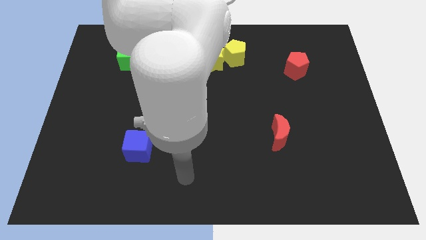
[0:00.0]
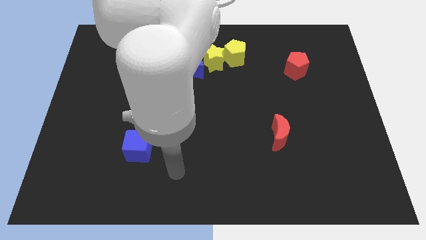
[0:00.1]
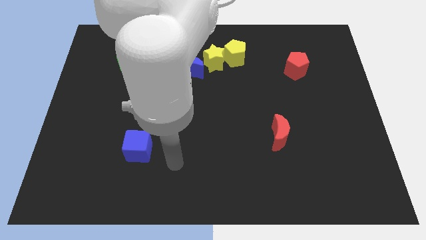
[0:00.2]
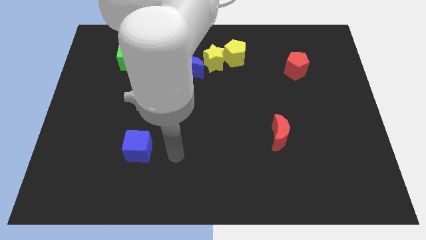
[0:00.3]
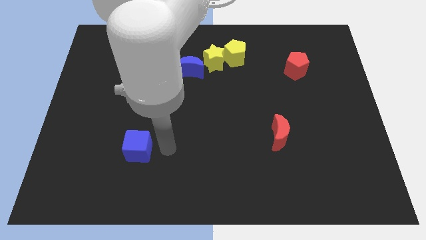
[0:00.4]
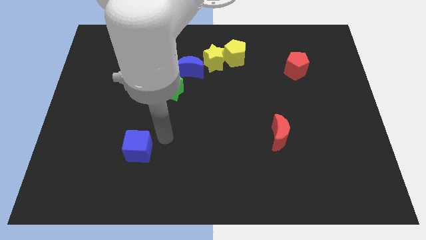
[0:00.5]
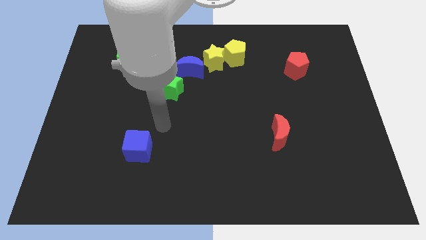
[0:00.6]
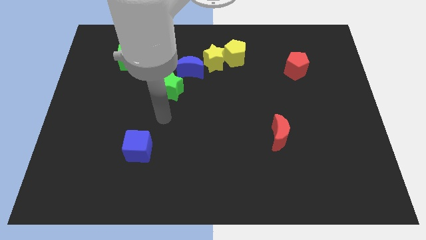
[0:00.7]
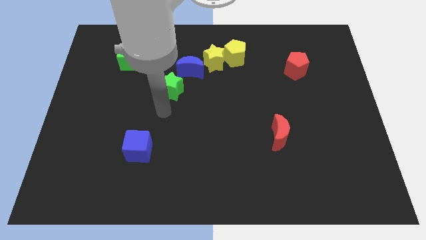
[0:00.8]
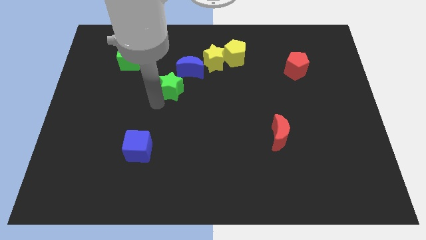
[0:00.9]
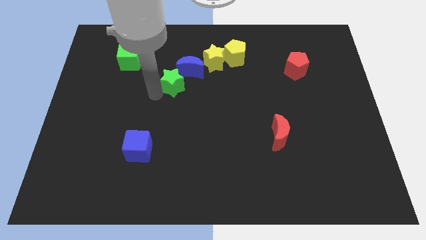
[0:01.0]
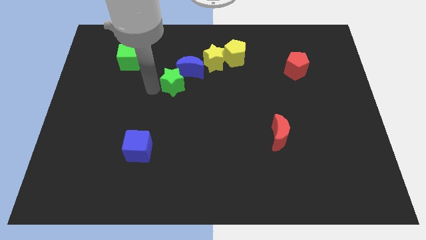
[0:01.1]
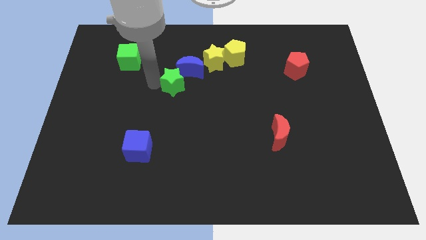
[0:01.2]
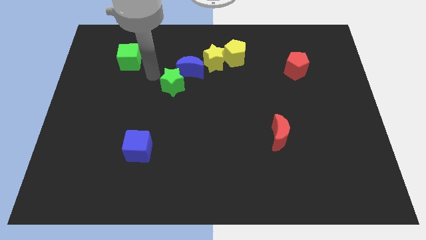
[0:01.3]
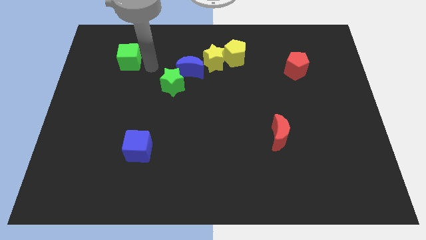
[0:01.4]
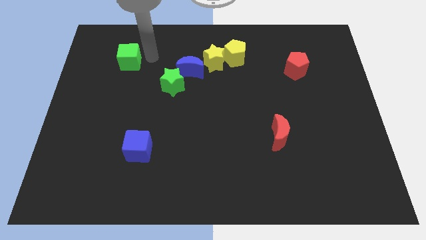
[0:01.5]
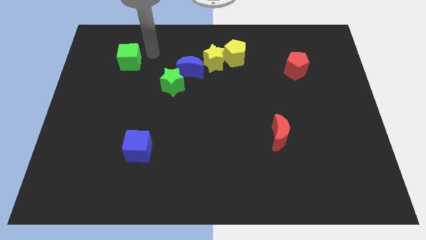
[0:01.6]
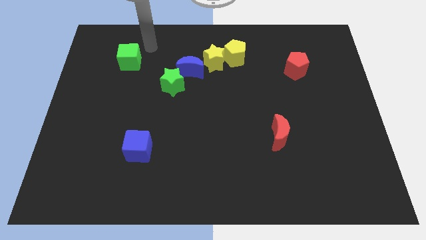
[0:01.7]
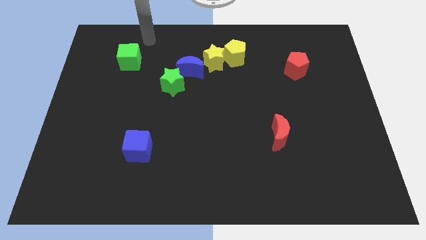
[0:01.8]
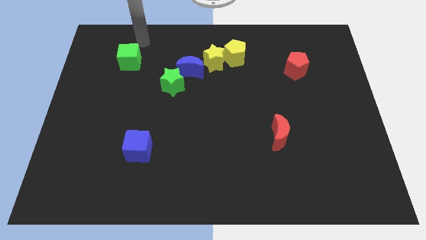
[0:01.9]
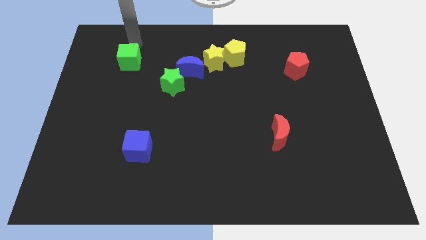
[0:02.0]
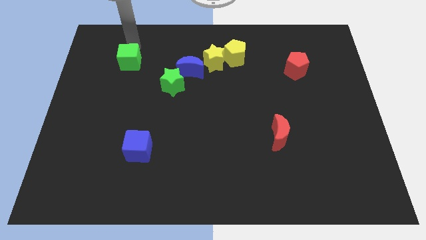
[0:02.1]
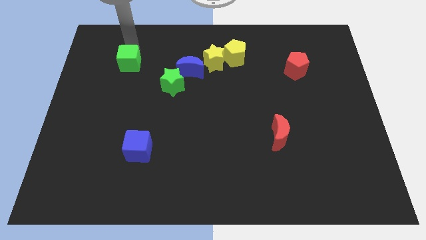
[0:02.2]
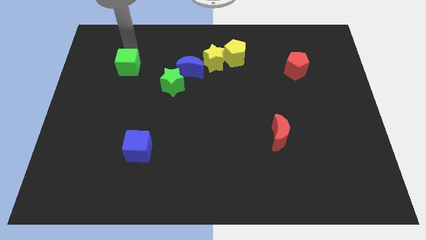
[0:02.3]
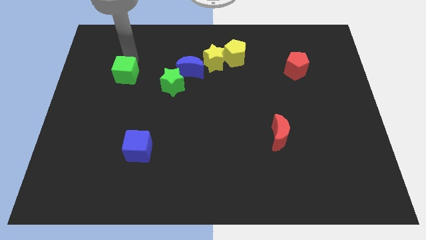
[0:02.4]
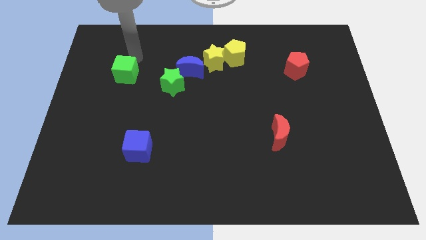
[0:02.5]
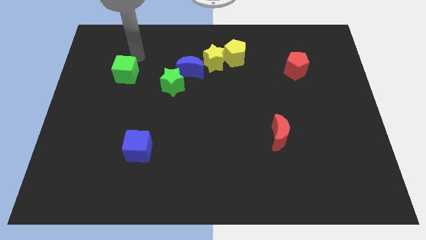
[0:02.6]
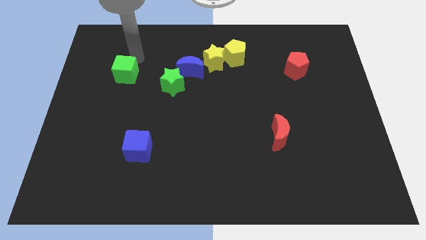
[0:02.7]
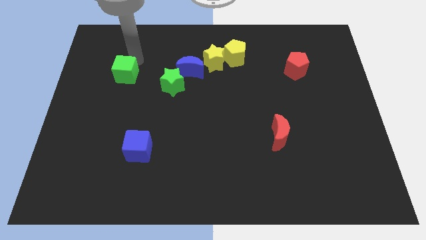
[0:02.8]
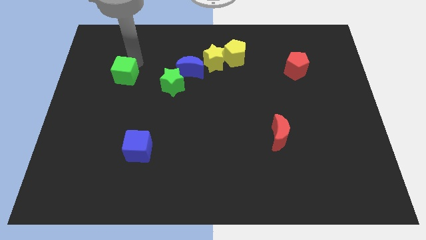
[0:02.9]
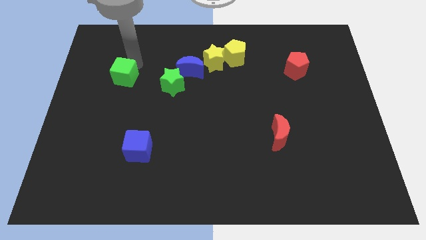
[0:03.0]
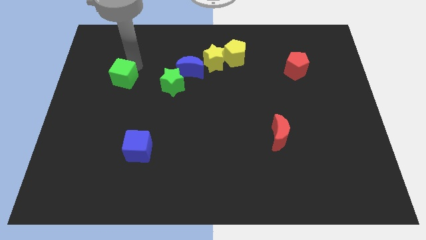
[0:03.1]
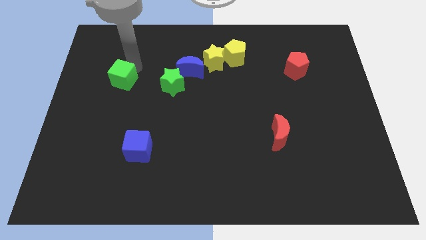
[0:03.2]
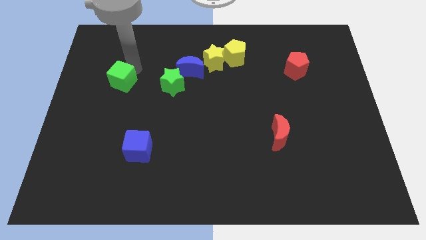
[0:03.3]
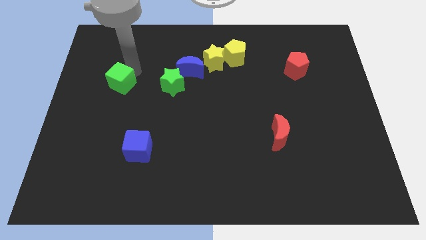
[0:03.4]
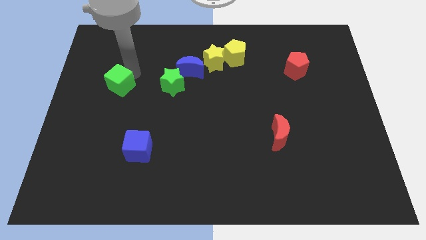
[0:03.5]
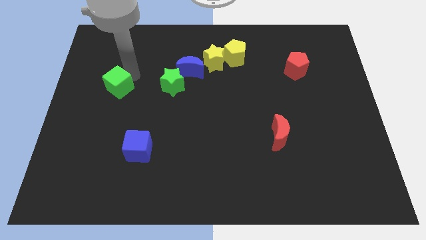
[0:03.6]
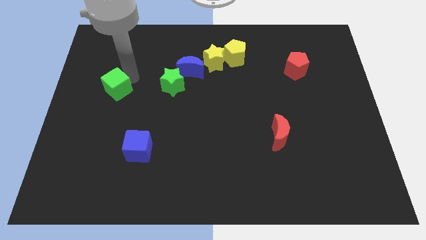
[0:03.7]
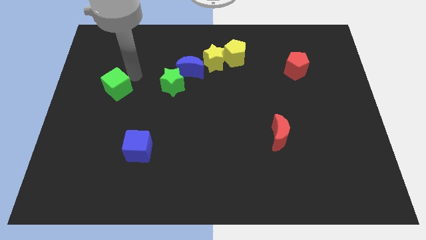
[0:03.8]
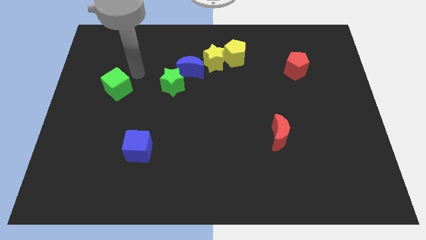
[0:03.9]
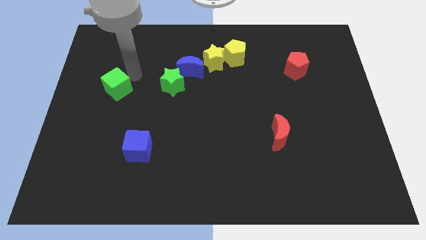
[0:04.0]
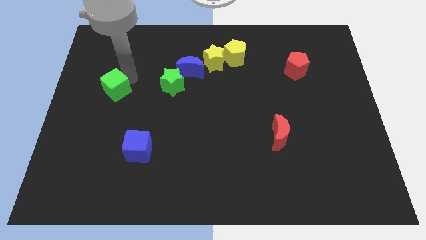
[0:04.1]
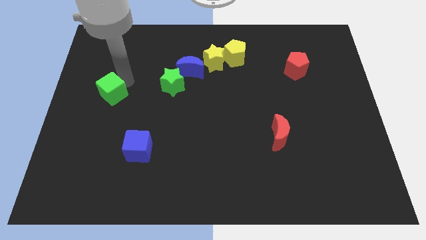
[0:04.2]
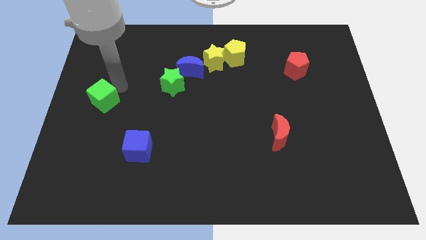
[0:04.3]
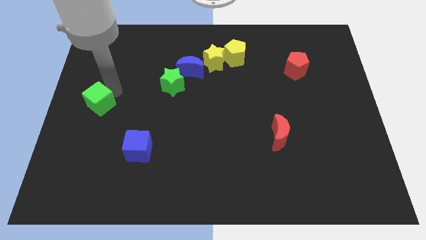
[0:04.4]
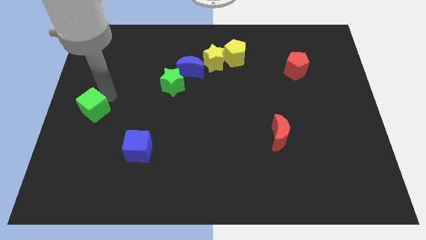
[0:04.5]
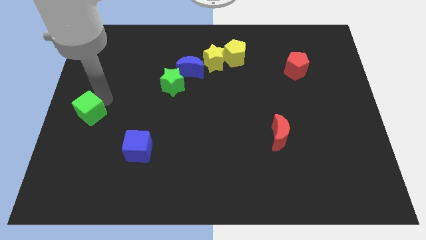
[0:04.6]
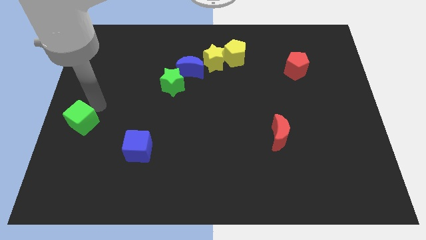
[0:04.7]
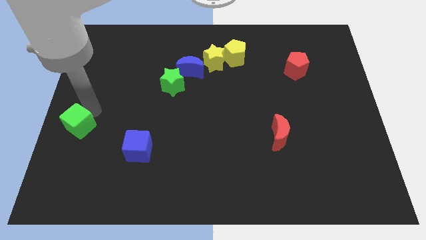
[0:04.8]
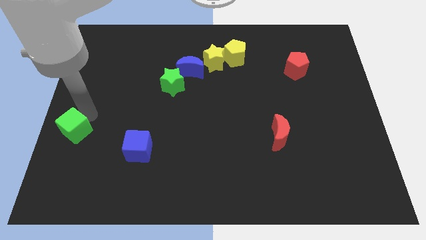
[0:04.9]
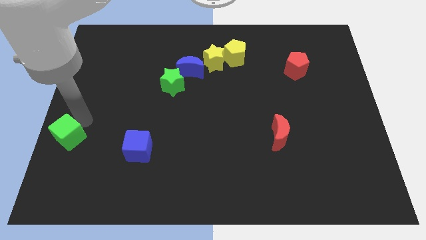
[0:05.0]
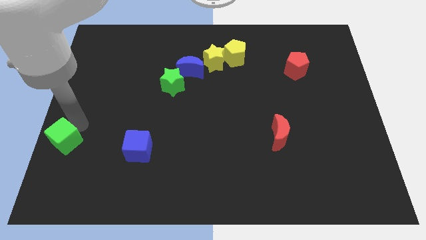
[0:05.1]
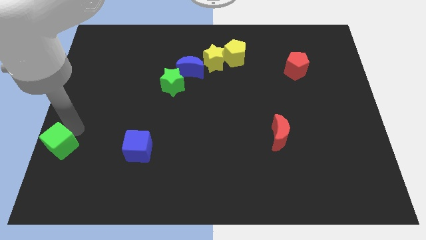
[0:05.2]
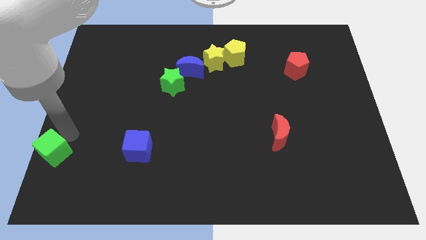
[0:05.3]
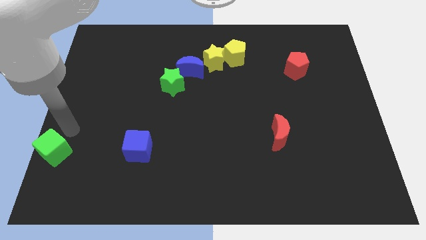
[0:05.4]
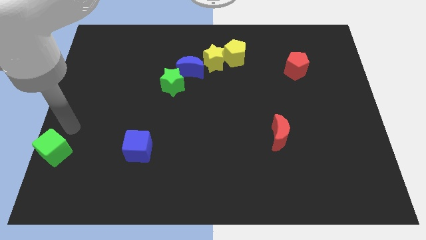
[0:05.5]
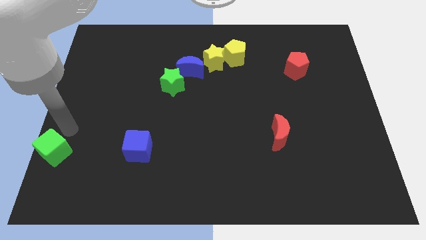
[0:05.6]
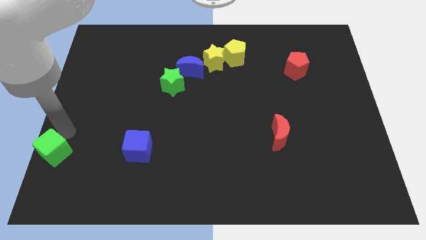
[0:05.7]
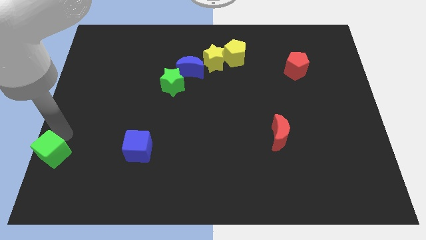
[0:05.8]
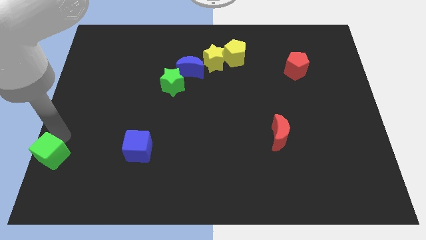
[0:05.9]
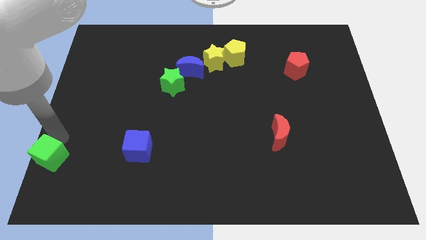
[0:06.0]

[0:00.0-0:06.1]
put the green cube to the bottom left of the board
